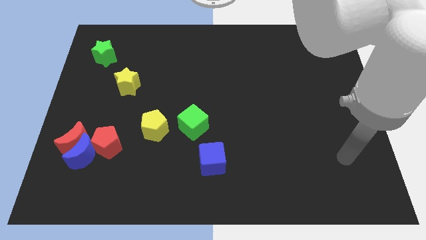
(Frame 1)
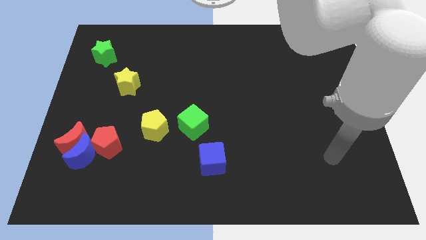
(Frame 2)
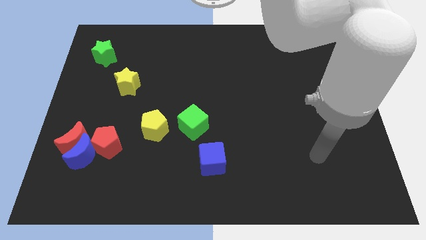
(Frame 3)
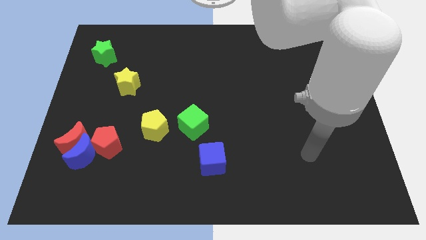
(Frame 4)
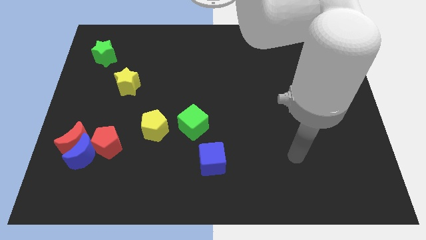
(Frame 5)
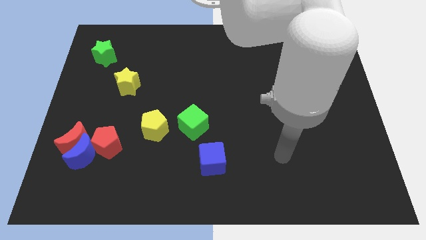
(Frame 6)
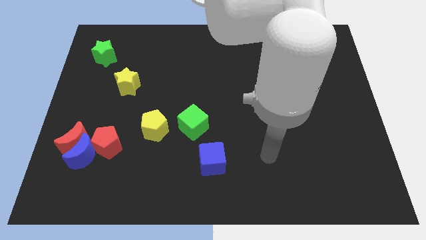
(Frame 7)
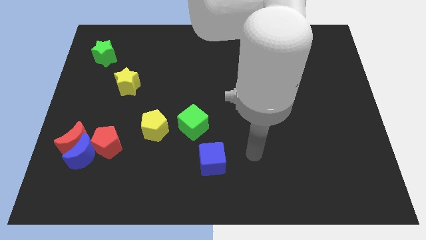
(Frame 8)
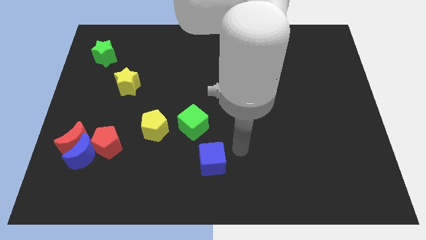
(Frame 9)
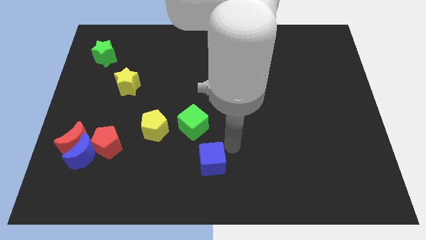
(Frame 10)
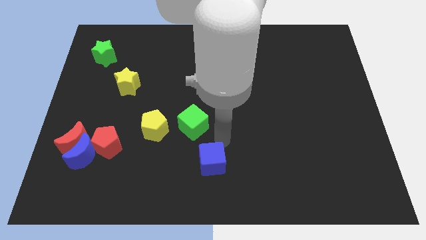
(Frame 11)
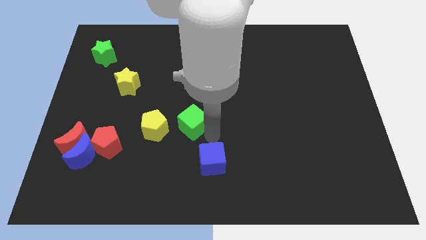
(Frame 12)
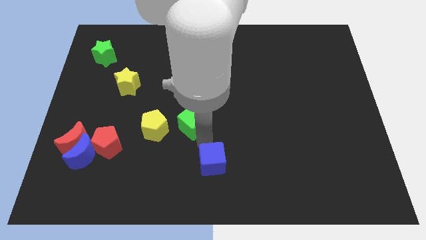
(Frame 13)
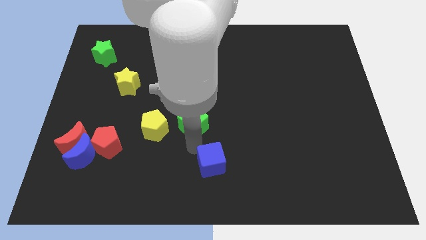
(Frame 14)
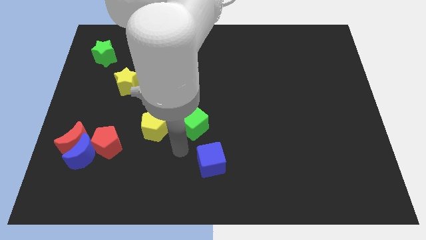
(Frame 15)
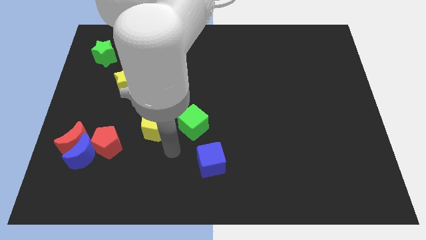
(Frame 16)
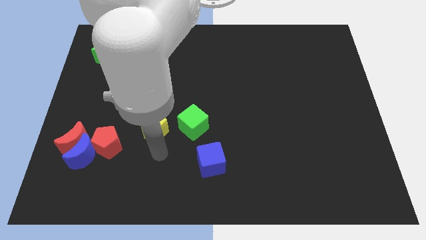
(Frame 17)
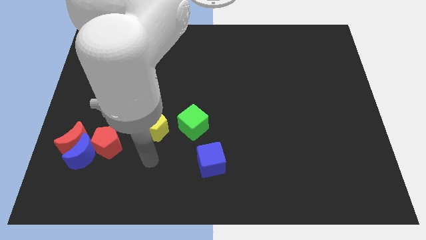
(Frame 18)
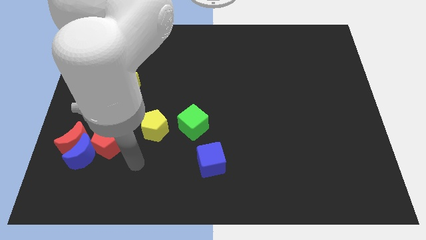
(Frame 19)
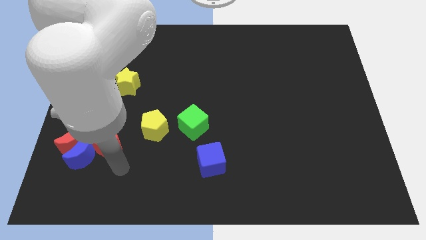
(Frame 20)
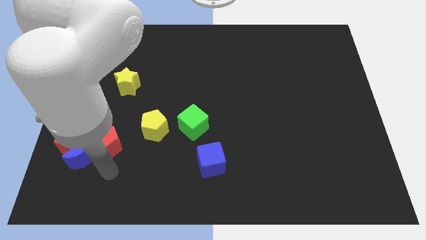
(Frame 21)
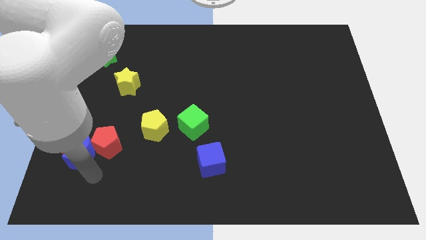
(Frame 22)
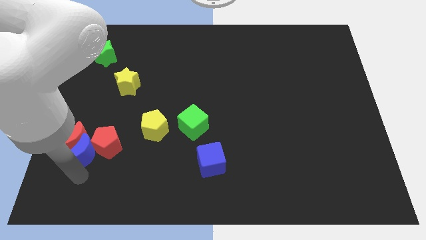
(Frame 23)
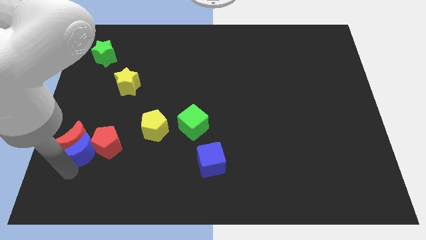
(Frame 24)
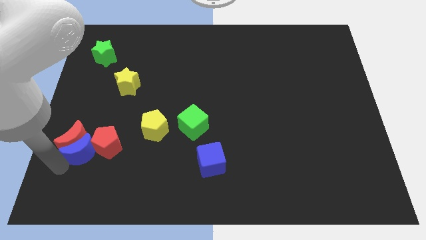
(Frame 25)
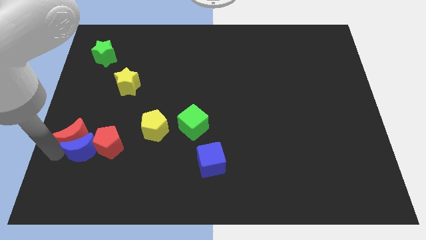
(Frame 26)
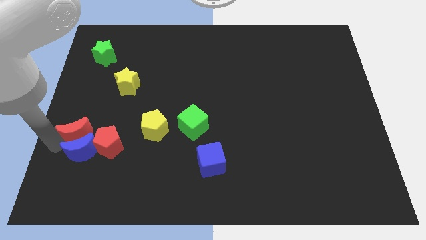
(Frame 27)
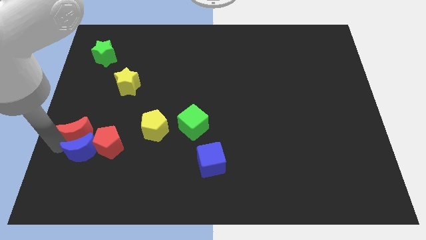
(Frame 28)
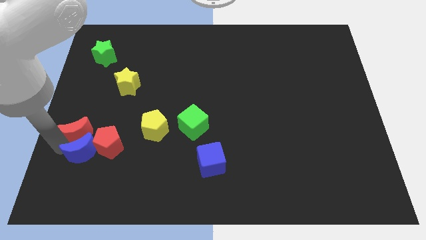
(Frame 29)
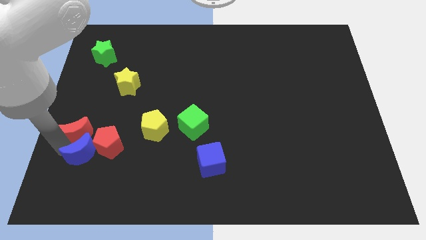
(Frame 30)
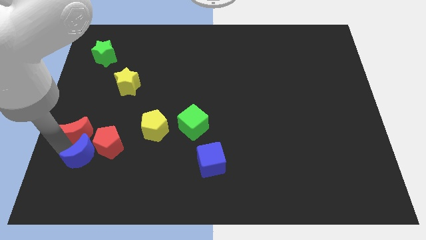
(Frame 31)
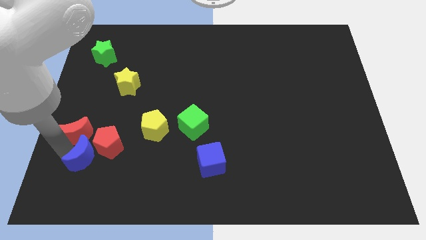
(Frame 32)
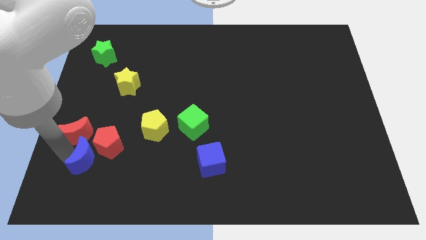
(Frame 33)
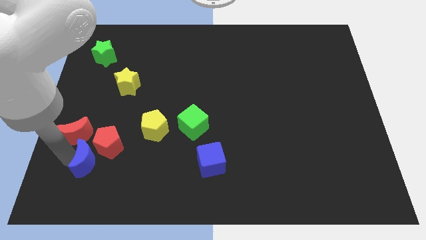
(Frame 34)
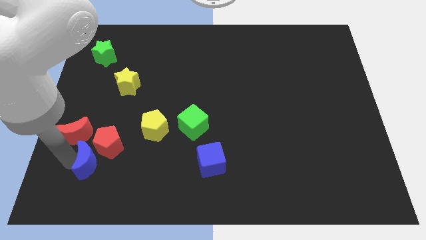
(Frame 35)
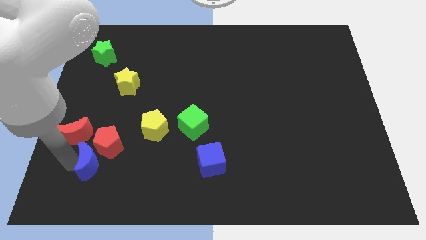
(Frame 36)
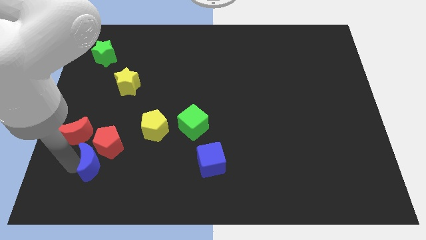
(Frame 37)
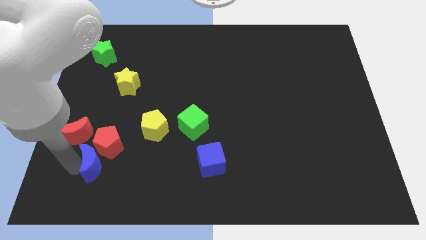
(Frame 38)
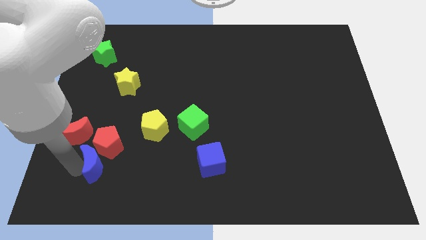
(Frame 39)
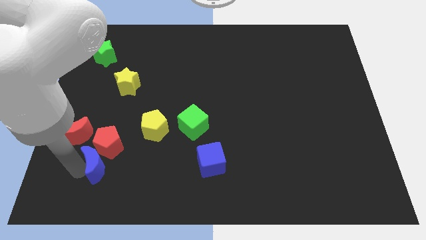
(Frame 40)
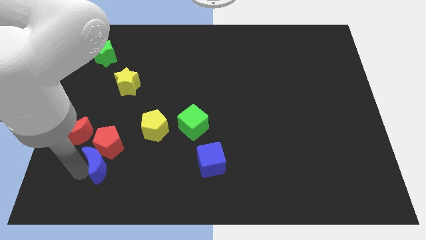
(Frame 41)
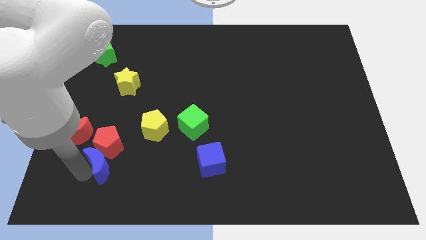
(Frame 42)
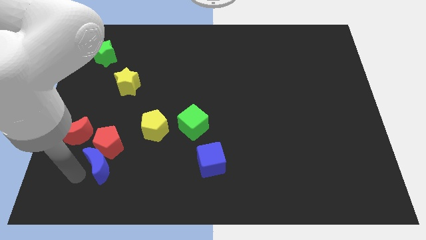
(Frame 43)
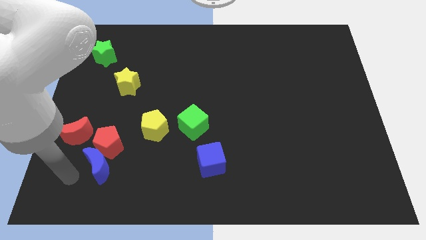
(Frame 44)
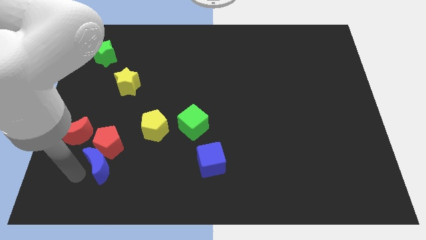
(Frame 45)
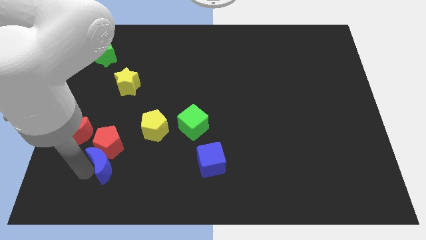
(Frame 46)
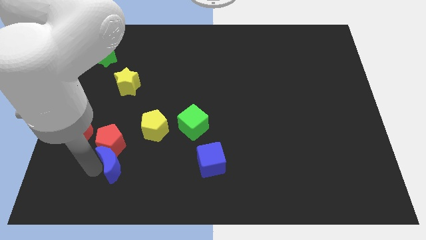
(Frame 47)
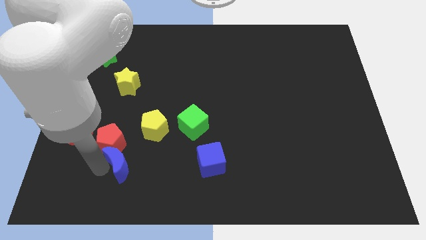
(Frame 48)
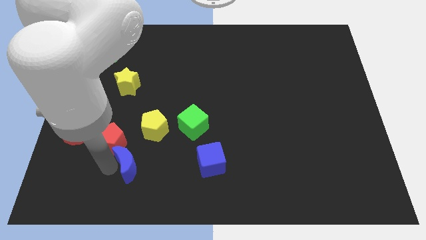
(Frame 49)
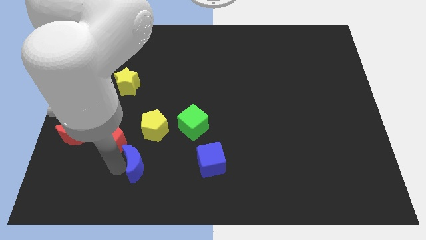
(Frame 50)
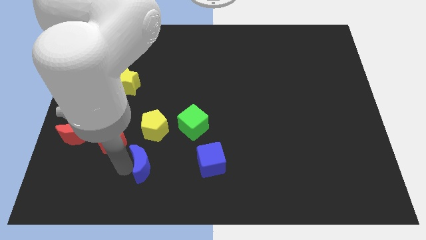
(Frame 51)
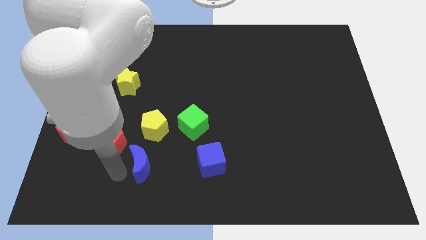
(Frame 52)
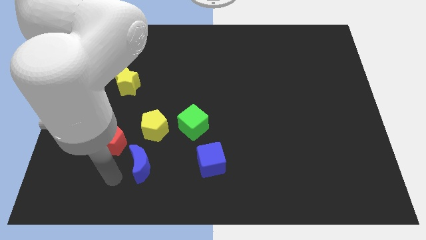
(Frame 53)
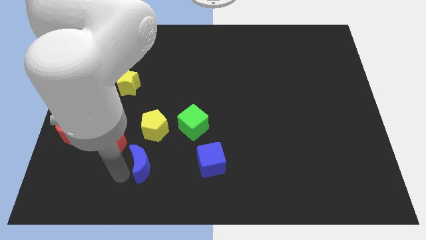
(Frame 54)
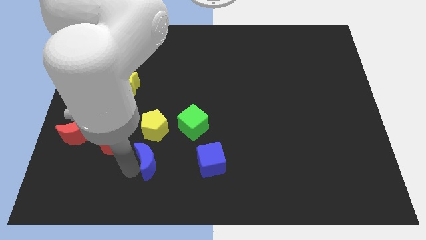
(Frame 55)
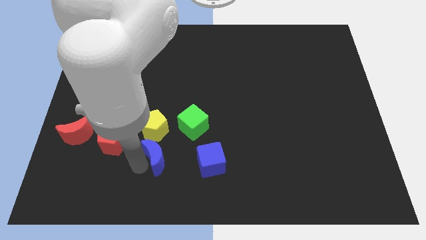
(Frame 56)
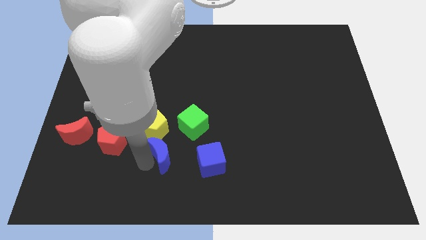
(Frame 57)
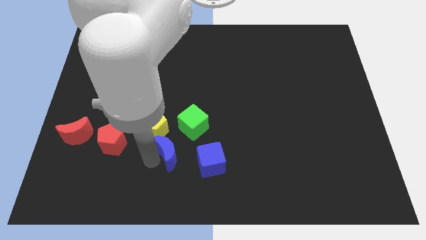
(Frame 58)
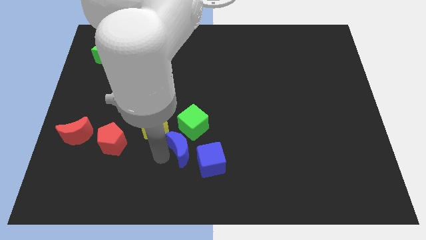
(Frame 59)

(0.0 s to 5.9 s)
move the blue moon right

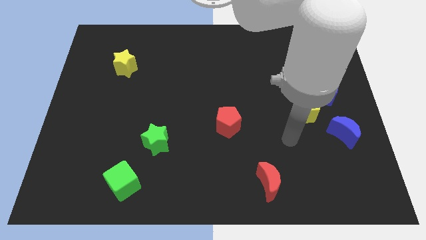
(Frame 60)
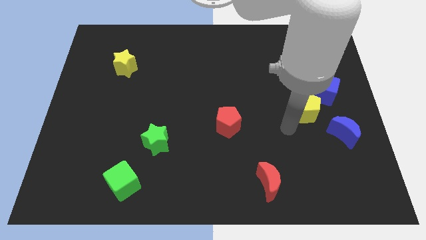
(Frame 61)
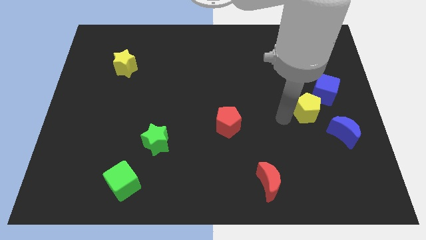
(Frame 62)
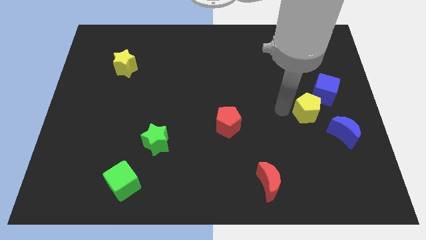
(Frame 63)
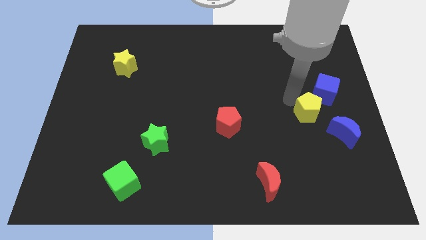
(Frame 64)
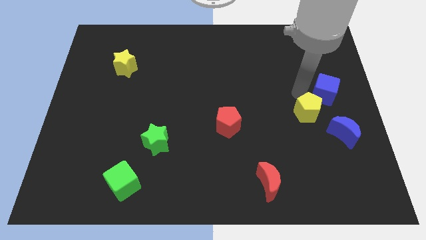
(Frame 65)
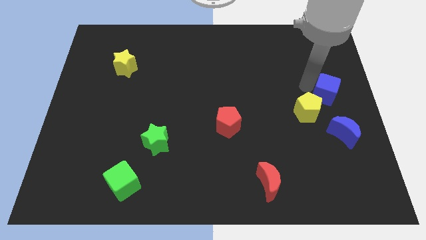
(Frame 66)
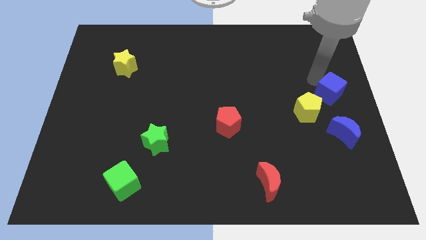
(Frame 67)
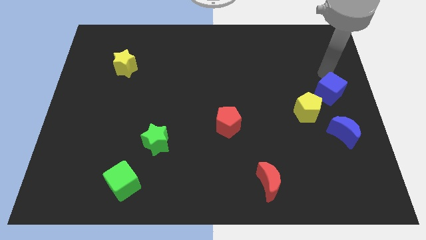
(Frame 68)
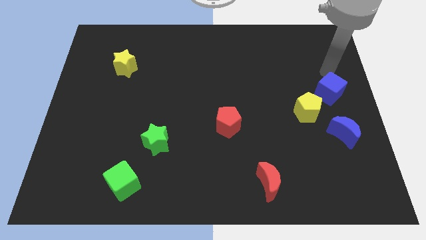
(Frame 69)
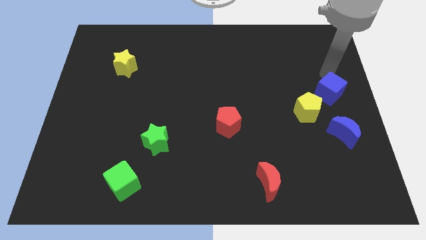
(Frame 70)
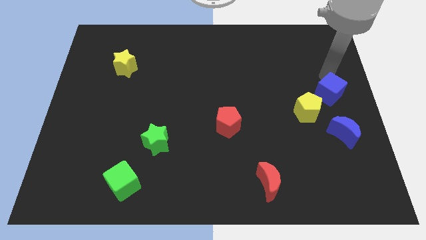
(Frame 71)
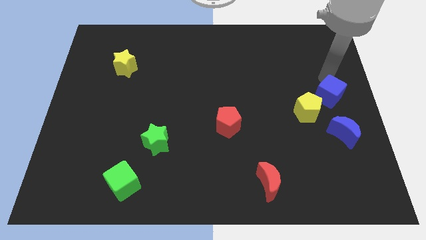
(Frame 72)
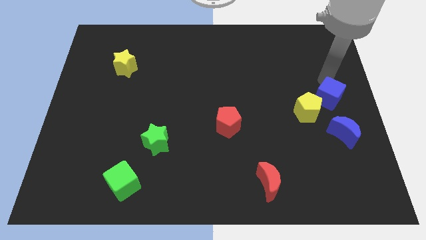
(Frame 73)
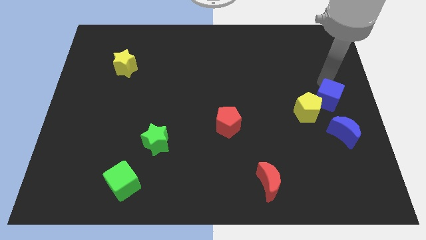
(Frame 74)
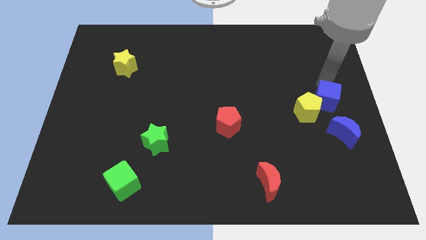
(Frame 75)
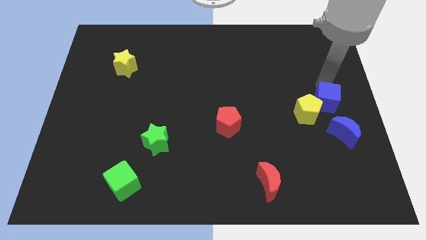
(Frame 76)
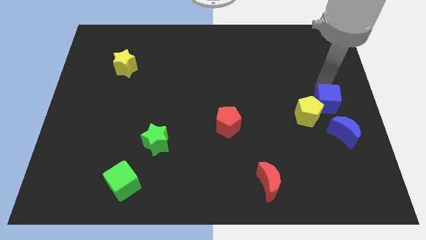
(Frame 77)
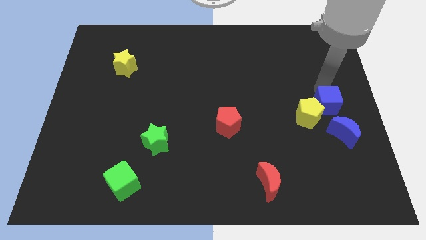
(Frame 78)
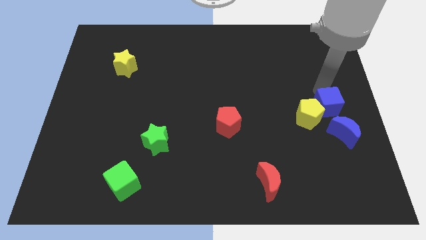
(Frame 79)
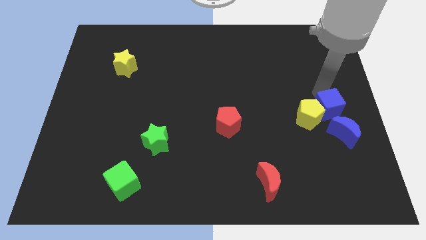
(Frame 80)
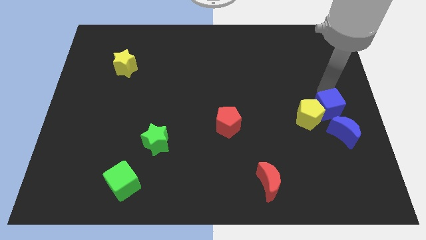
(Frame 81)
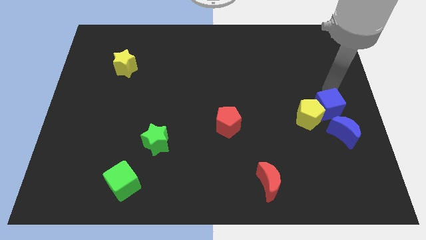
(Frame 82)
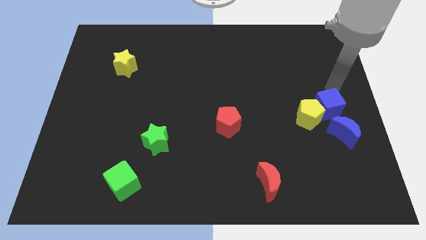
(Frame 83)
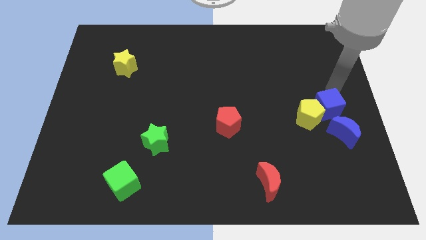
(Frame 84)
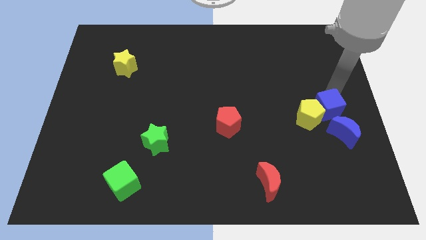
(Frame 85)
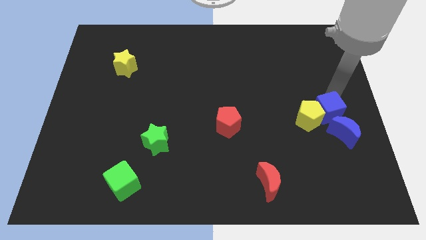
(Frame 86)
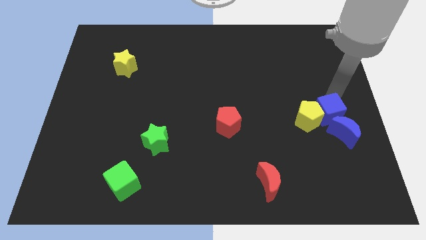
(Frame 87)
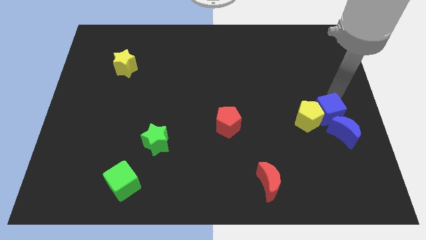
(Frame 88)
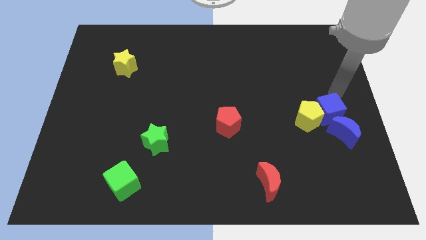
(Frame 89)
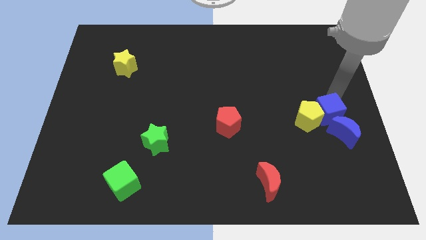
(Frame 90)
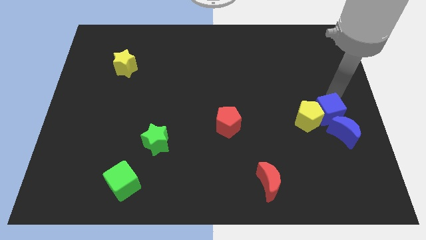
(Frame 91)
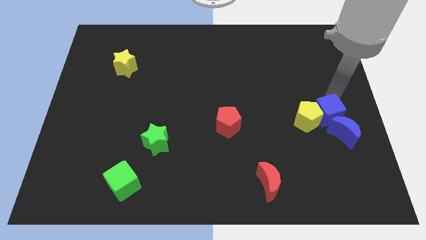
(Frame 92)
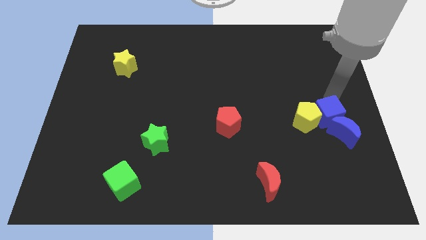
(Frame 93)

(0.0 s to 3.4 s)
move the blue cube a little bit downwards
